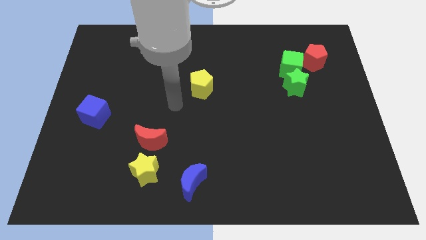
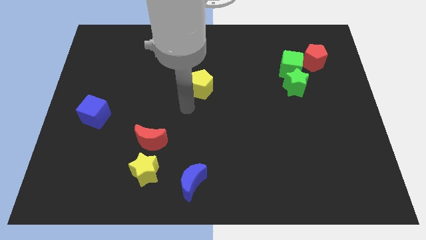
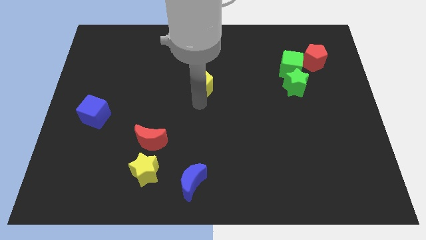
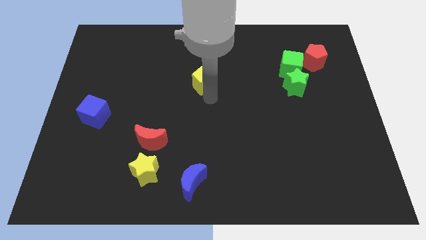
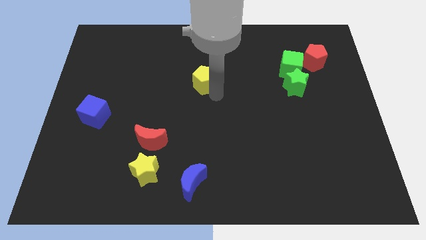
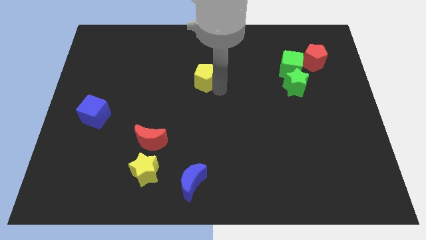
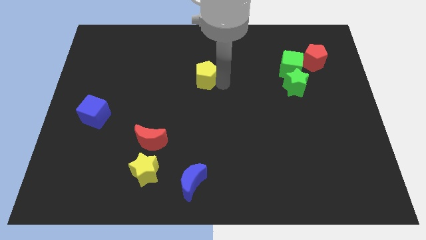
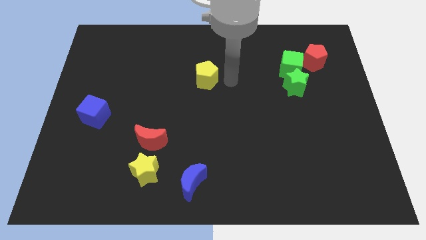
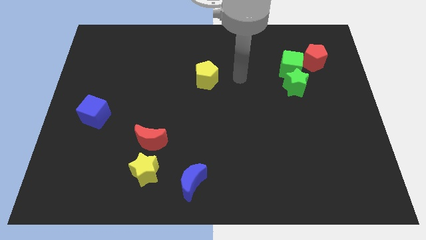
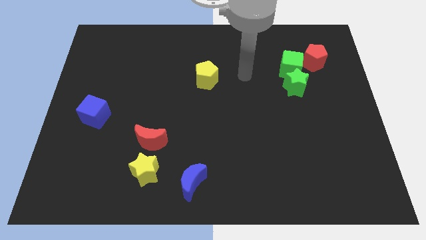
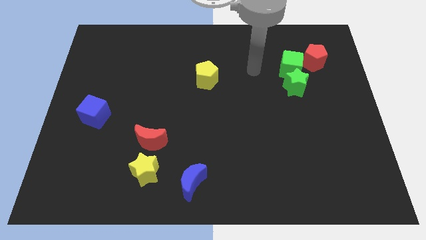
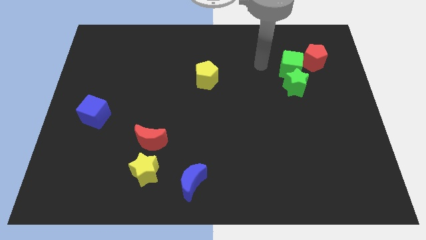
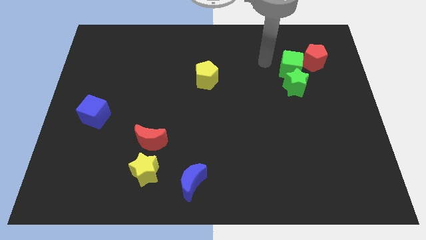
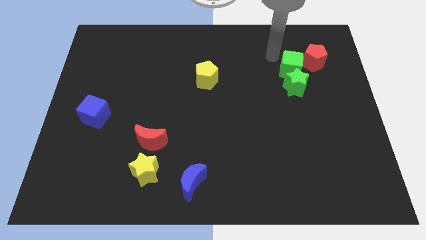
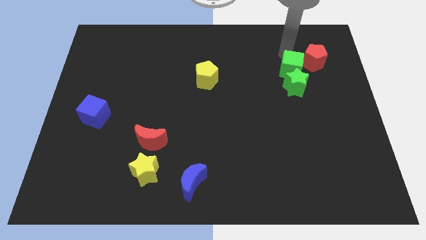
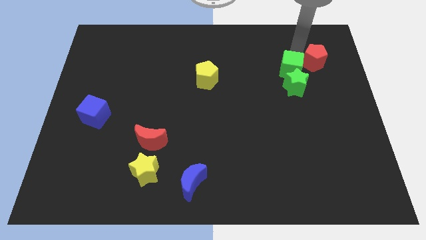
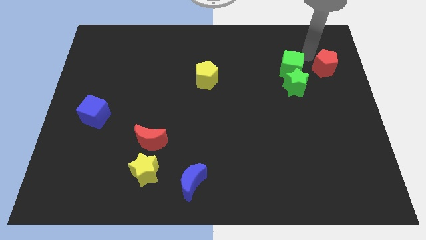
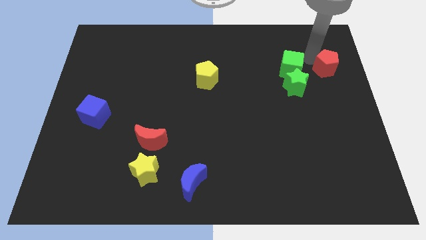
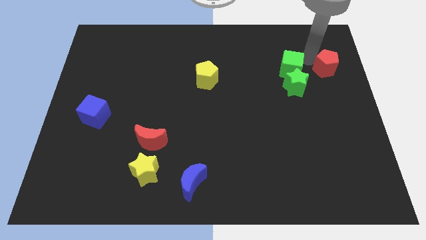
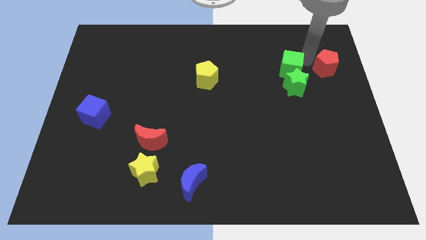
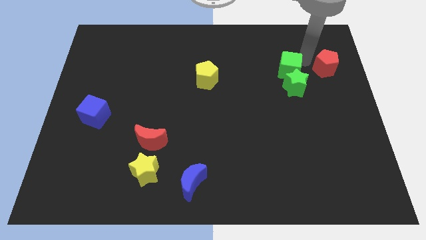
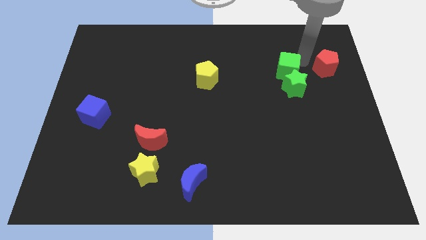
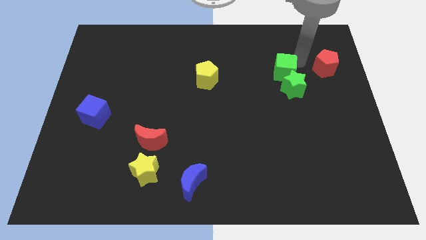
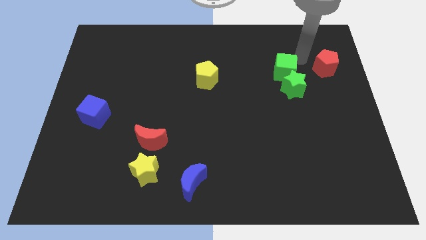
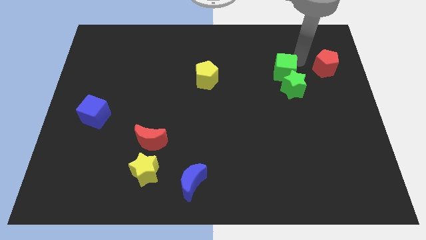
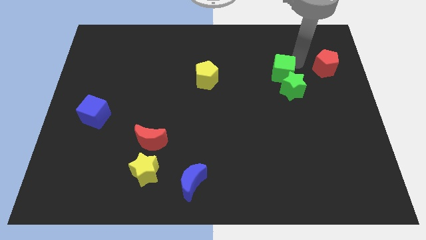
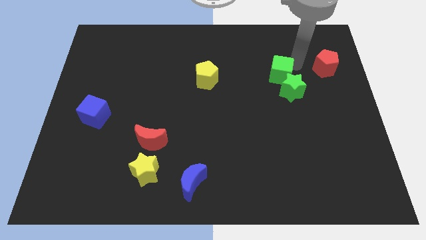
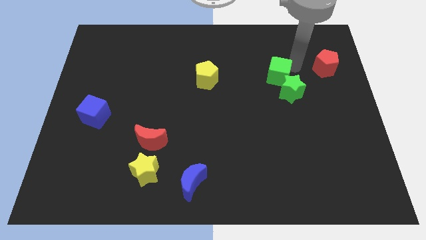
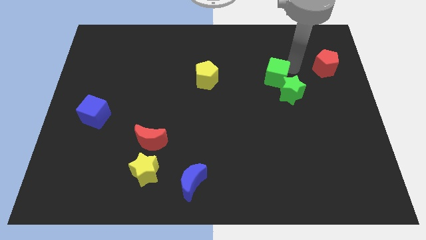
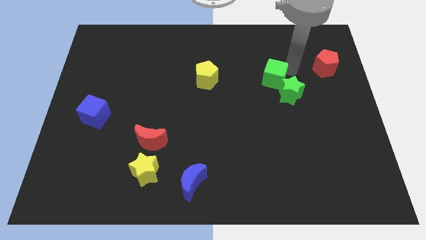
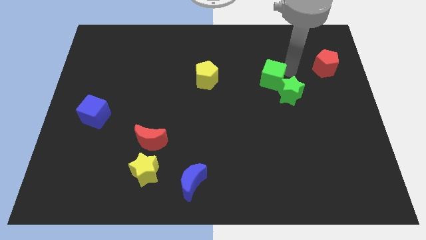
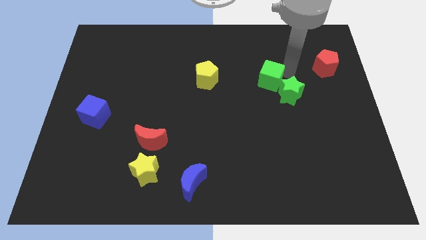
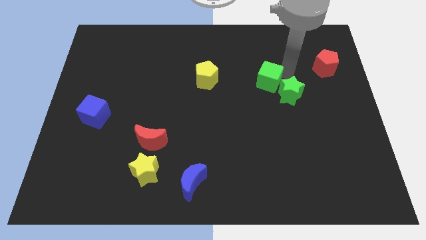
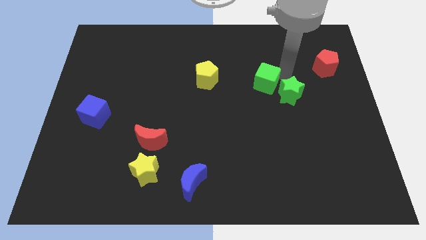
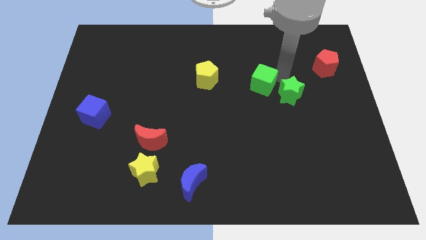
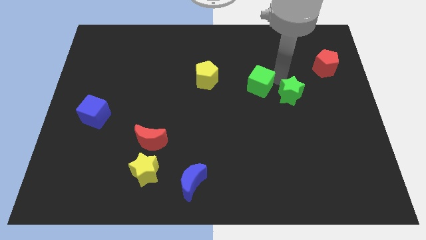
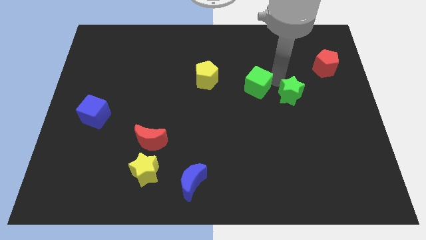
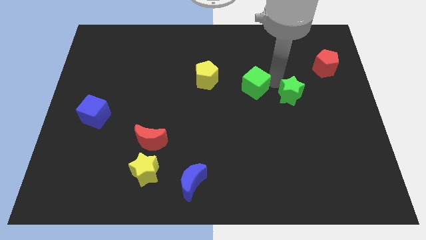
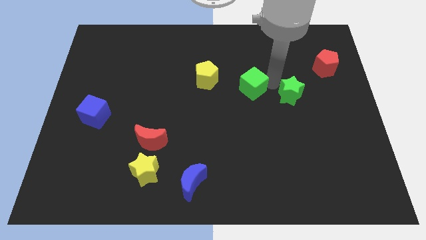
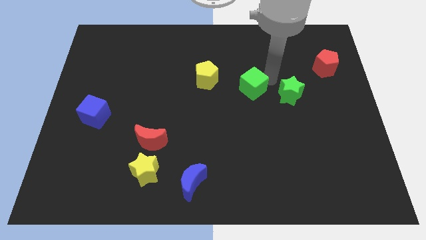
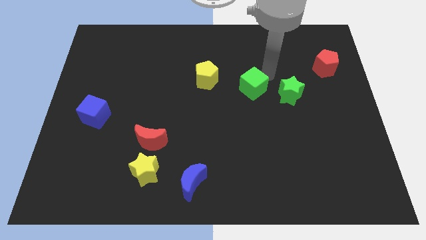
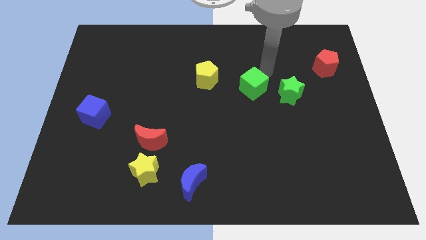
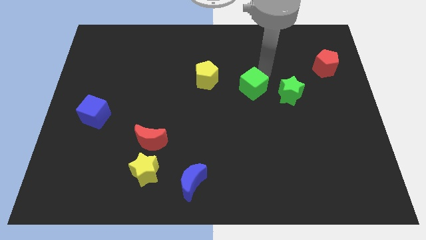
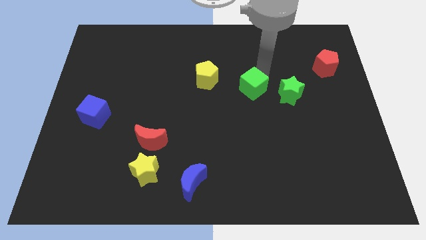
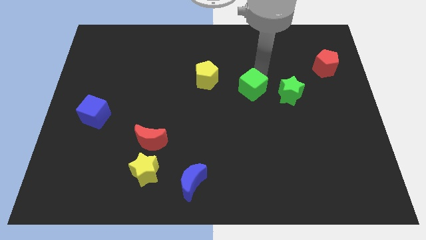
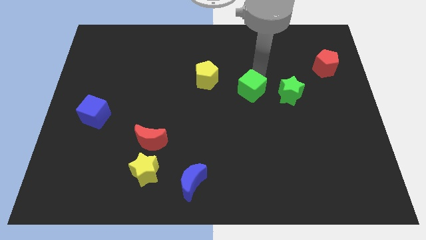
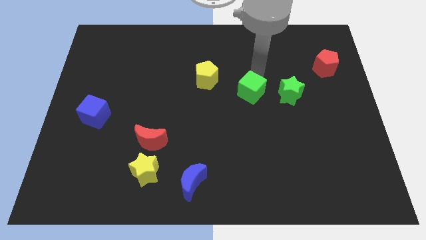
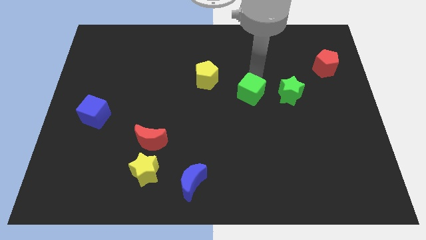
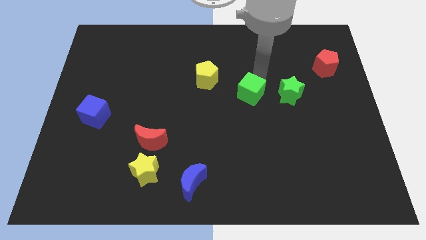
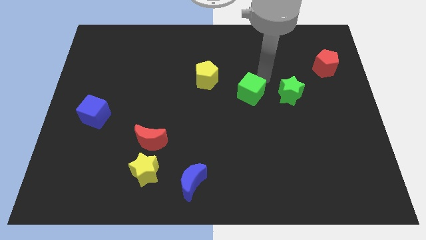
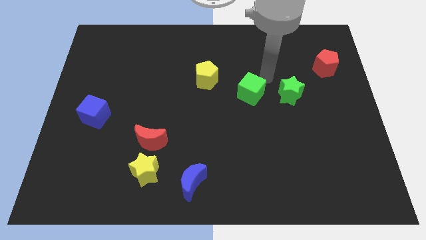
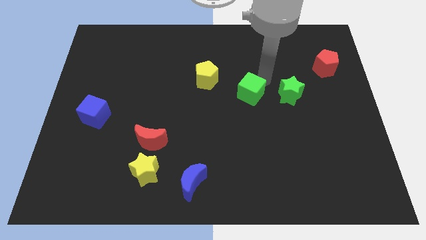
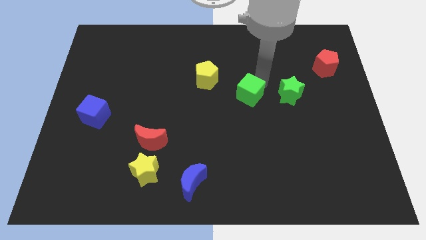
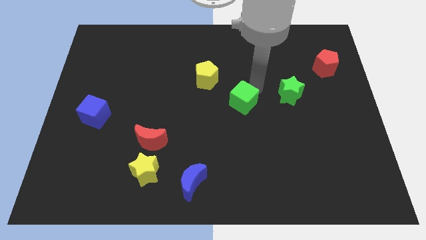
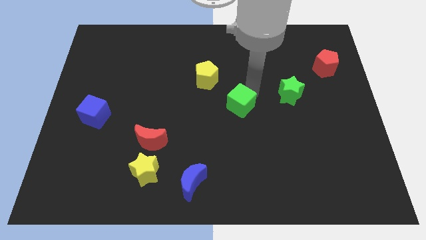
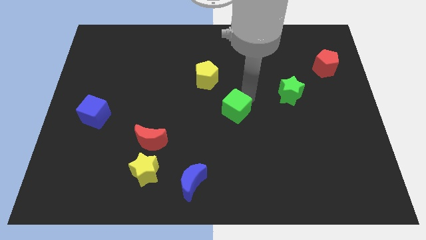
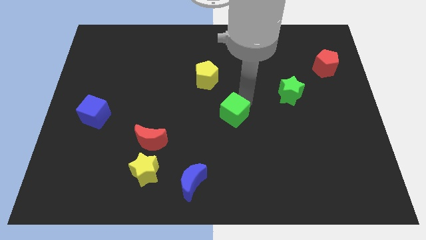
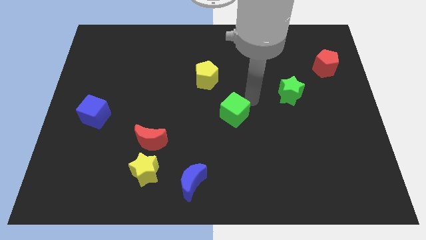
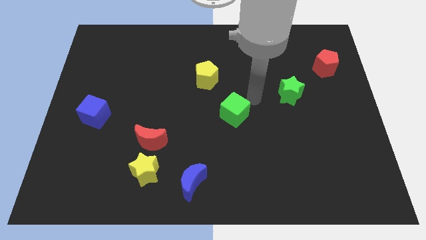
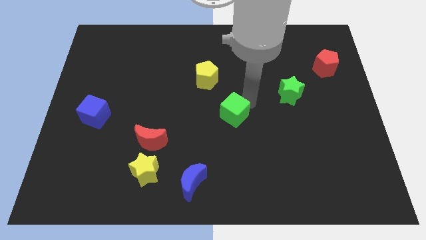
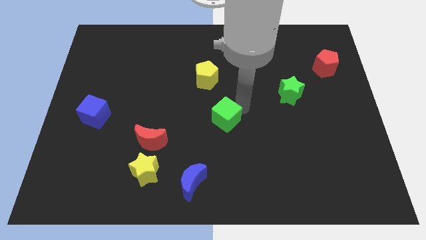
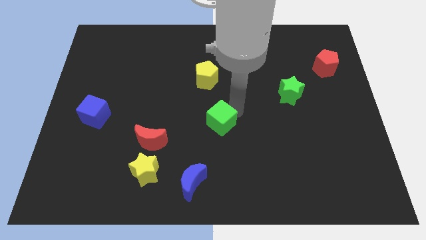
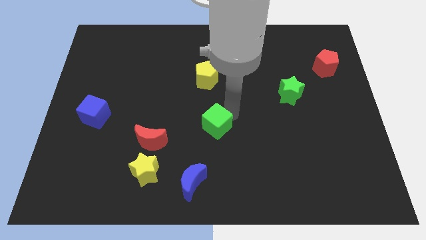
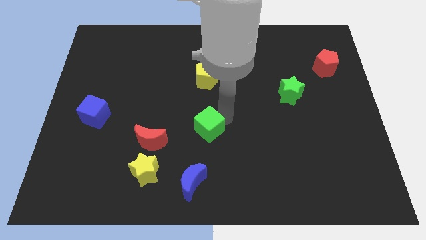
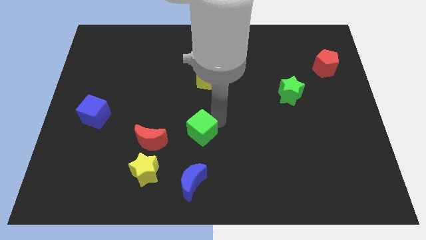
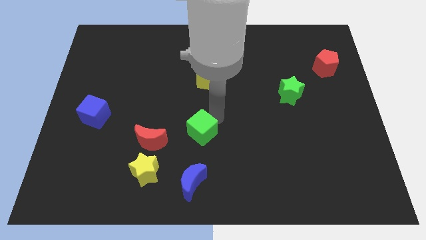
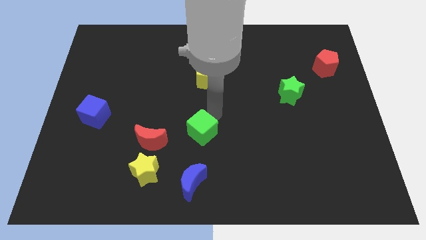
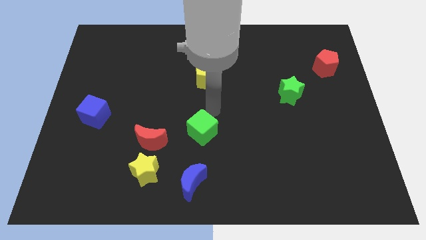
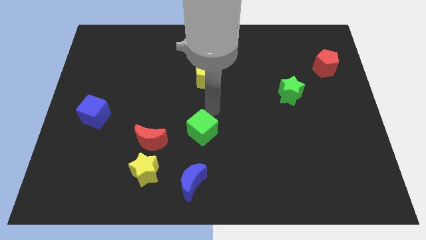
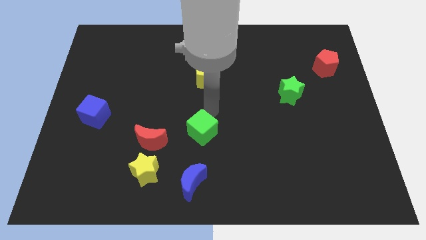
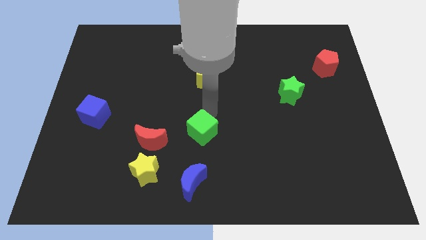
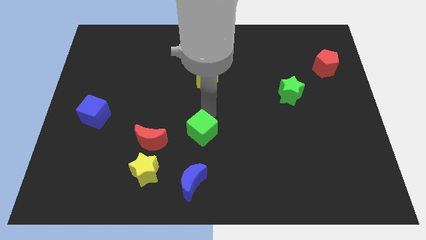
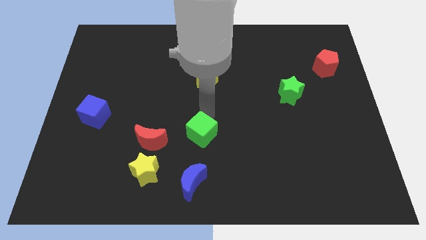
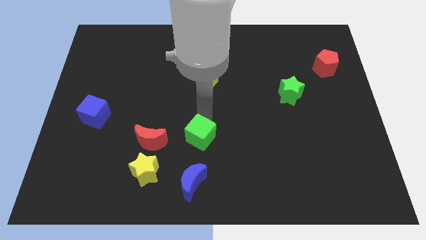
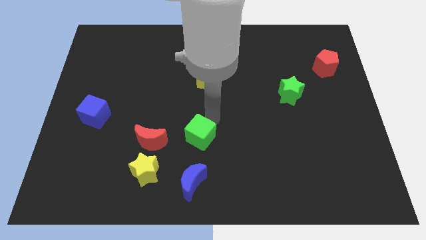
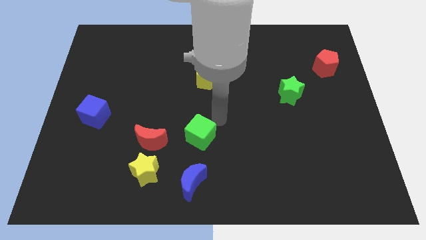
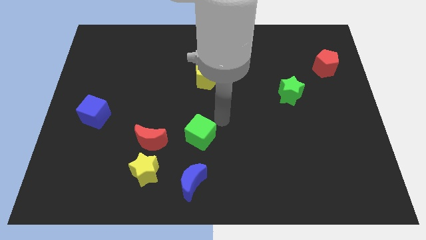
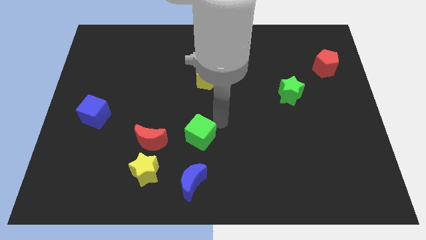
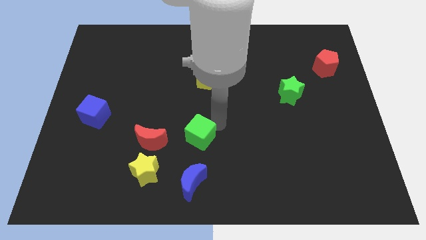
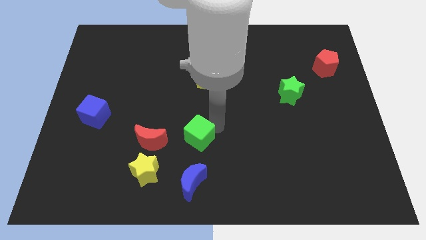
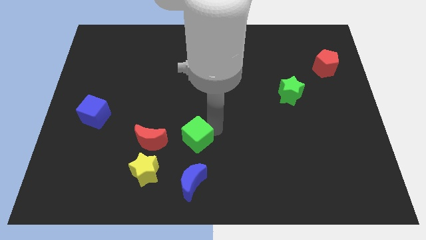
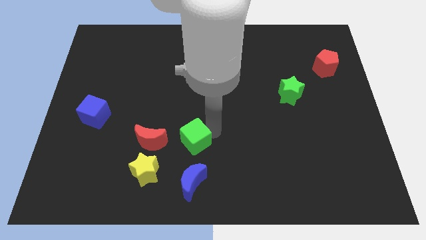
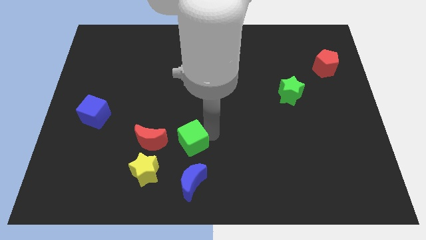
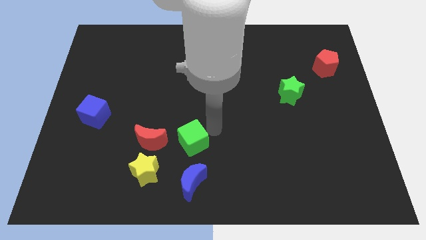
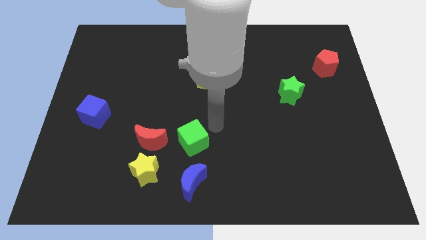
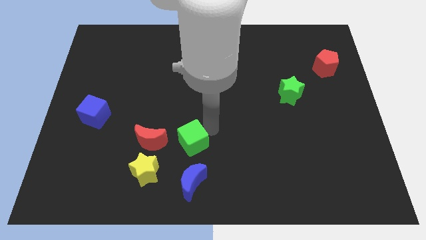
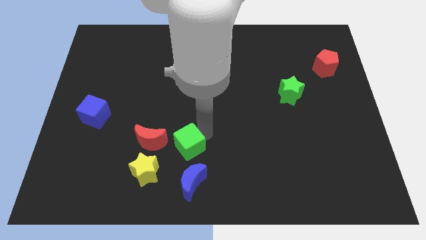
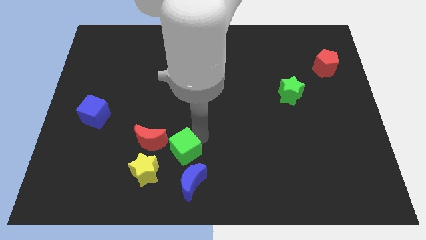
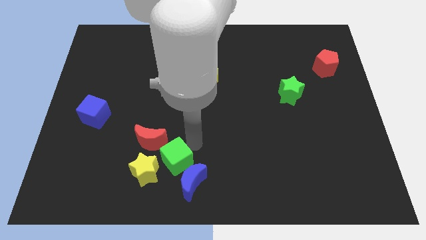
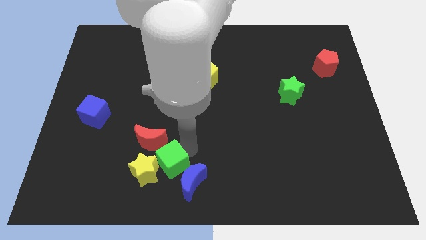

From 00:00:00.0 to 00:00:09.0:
put the green cube next to the yellow star
